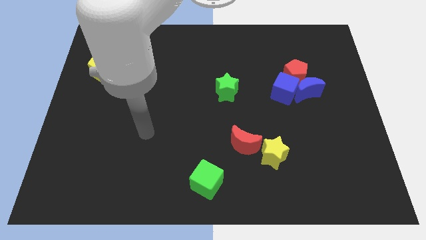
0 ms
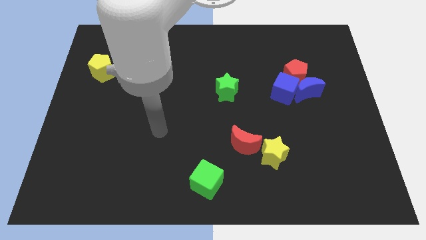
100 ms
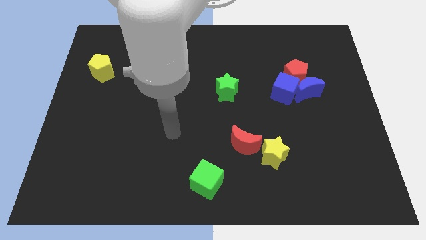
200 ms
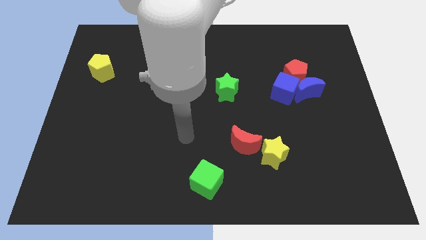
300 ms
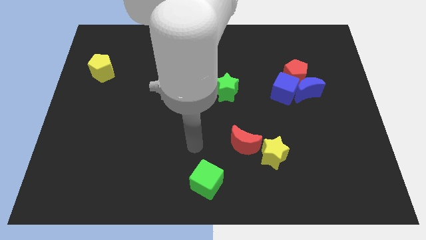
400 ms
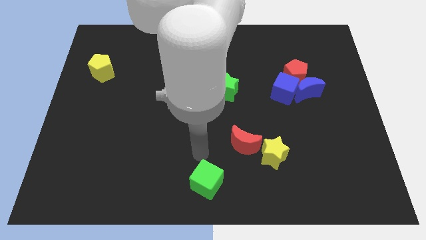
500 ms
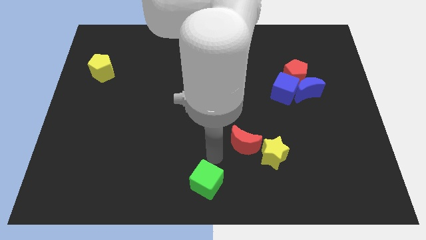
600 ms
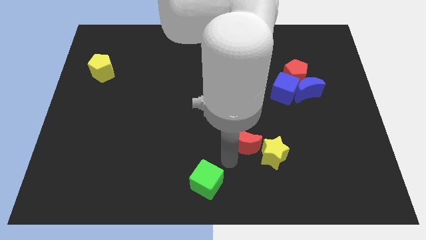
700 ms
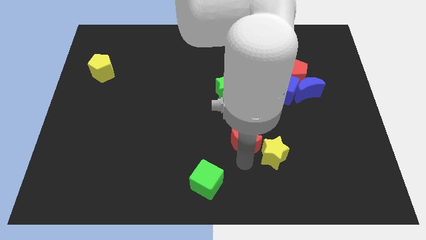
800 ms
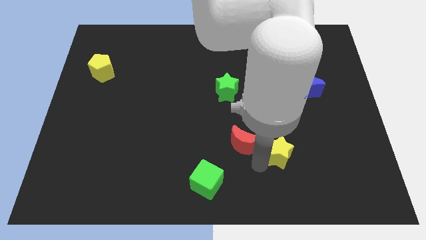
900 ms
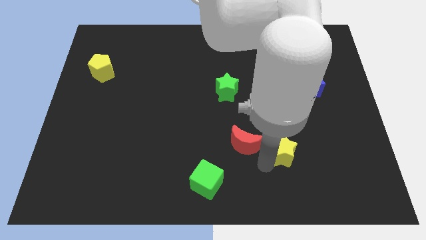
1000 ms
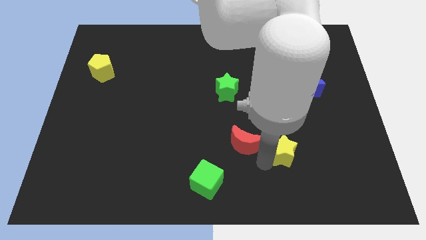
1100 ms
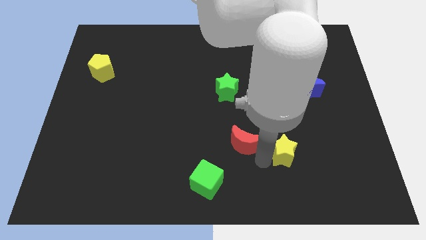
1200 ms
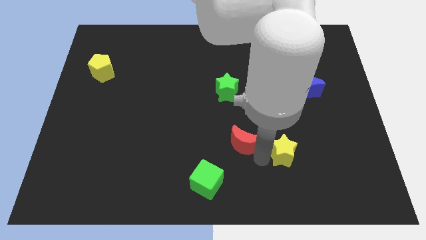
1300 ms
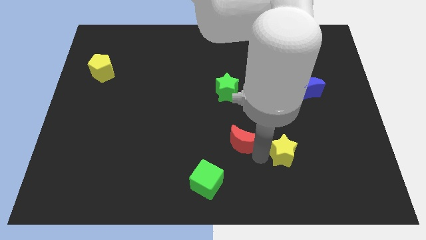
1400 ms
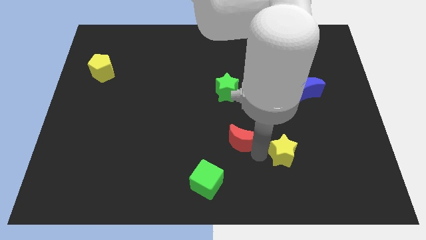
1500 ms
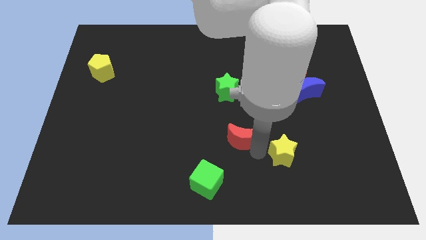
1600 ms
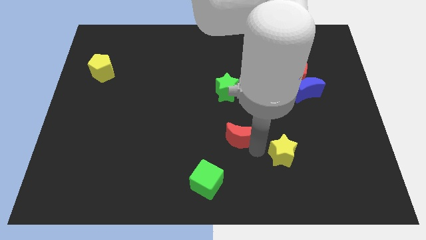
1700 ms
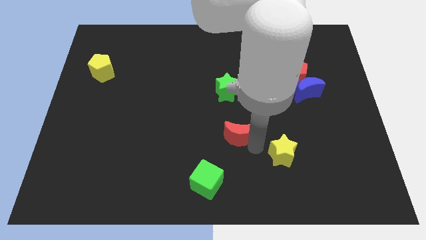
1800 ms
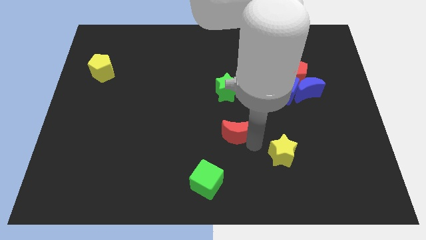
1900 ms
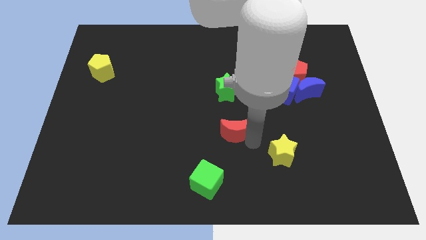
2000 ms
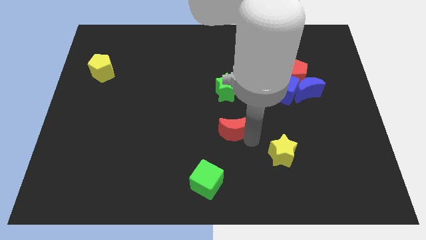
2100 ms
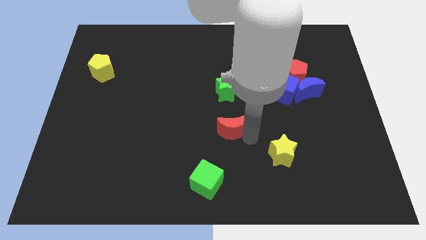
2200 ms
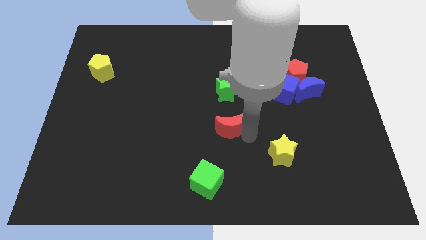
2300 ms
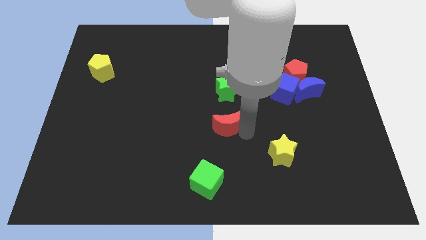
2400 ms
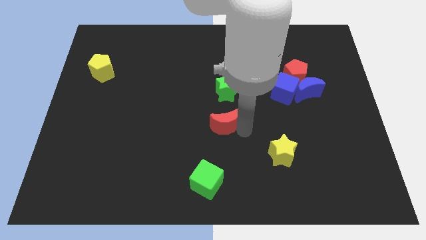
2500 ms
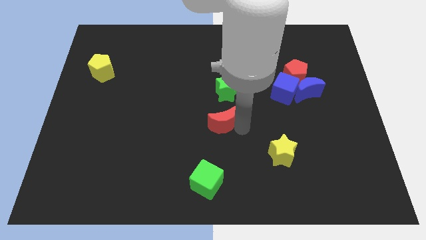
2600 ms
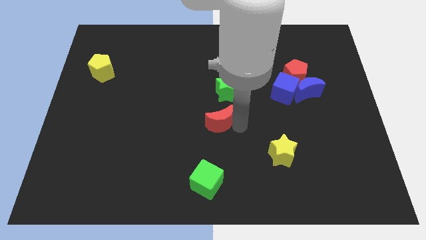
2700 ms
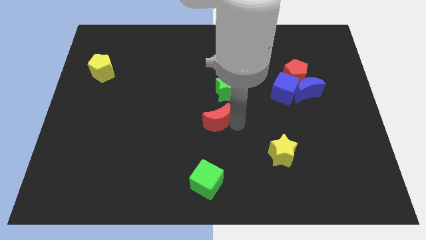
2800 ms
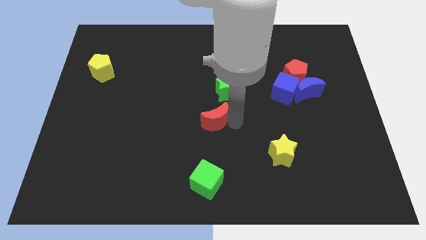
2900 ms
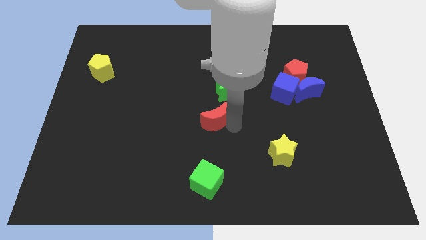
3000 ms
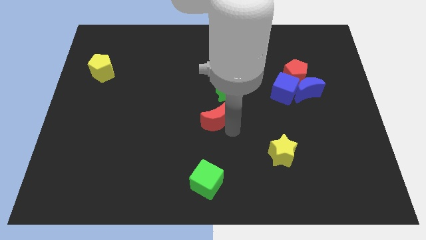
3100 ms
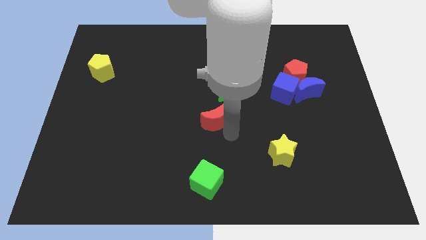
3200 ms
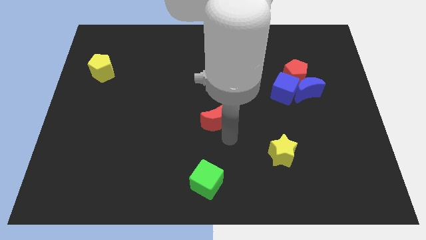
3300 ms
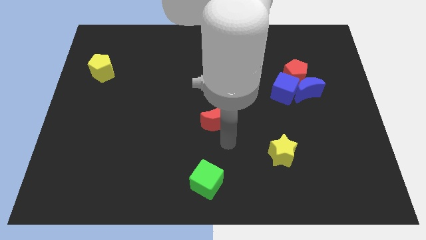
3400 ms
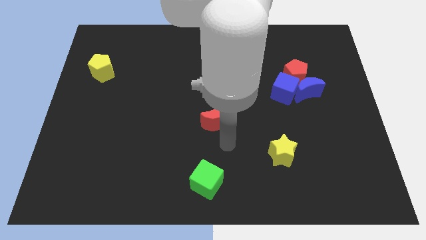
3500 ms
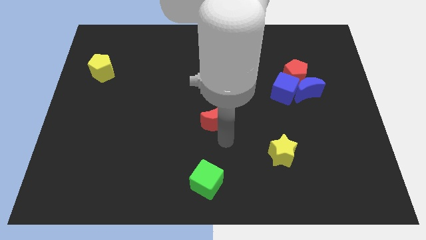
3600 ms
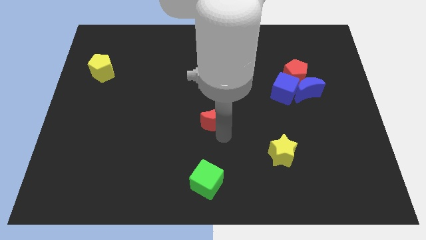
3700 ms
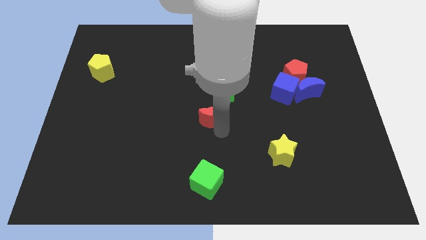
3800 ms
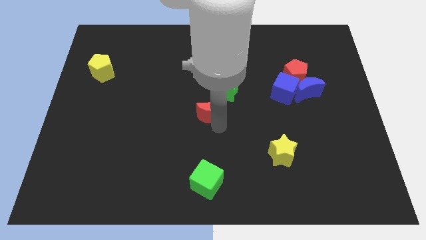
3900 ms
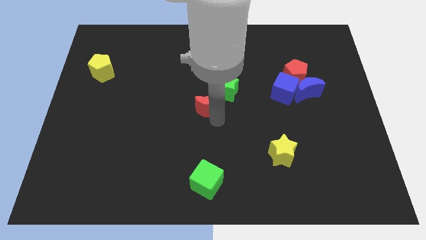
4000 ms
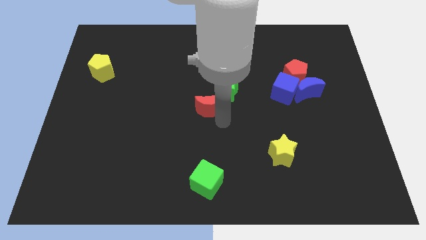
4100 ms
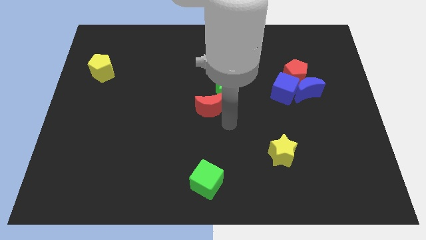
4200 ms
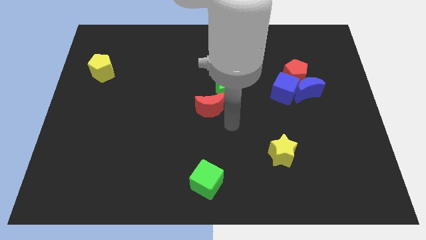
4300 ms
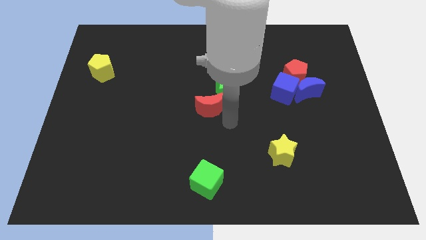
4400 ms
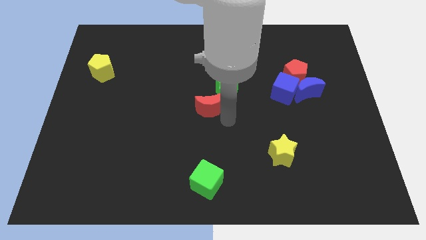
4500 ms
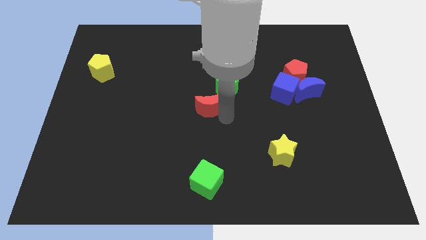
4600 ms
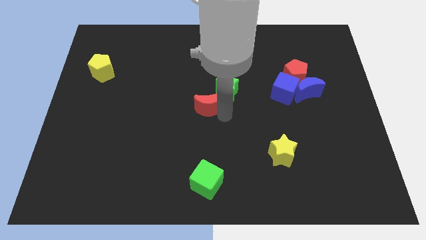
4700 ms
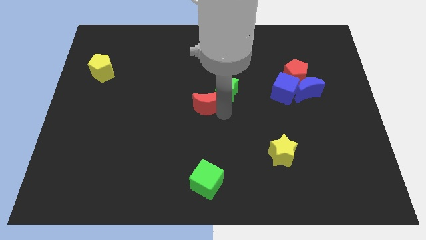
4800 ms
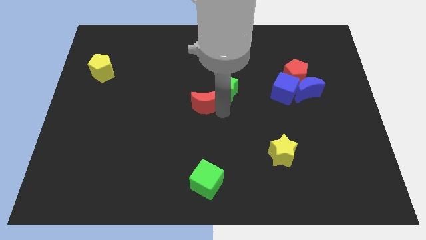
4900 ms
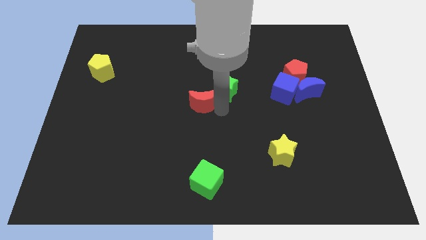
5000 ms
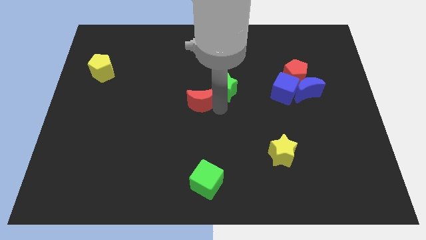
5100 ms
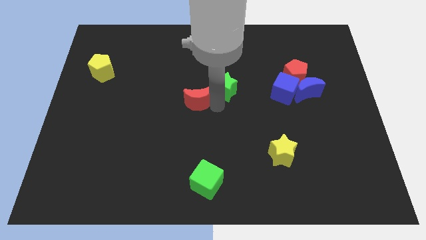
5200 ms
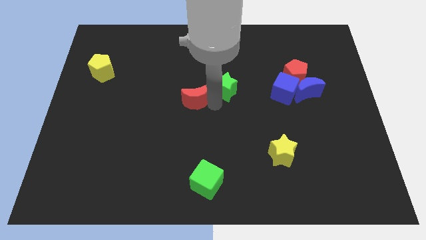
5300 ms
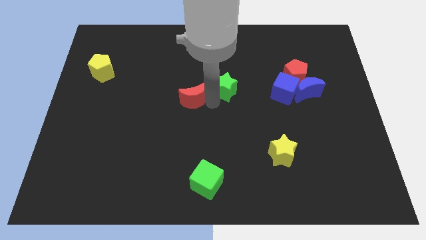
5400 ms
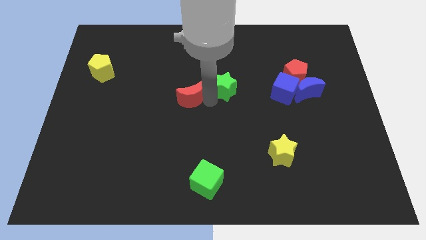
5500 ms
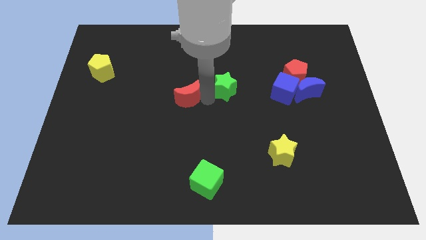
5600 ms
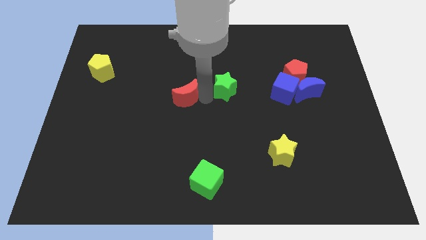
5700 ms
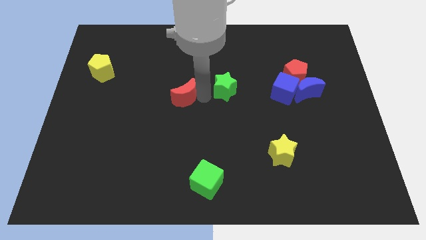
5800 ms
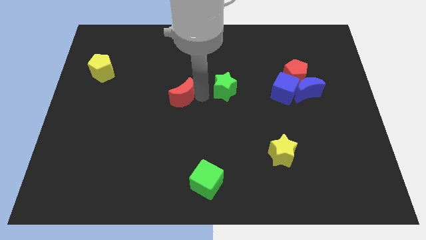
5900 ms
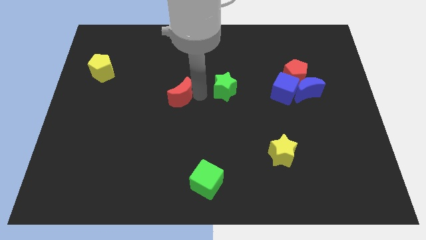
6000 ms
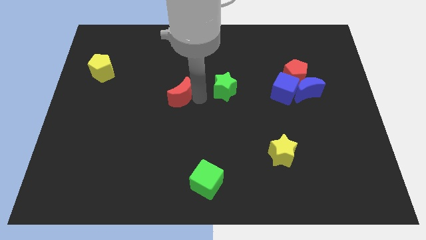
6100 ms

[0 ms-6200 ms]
slide the red moon diagonally upwards and to the left

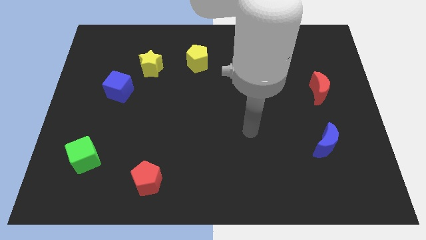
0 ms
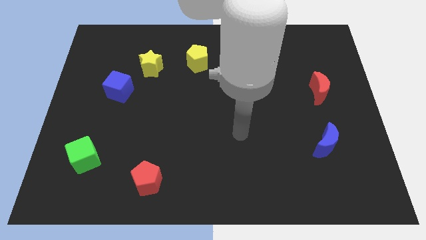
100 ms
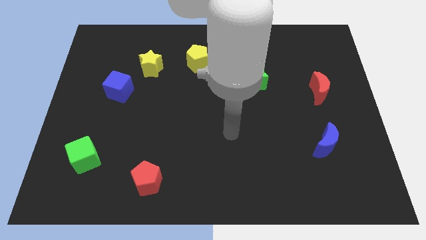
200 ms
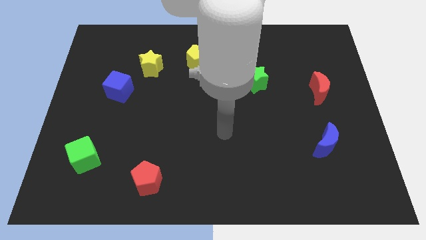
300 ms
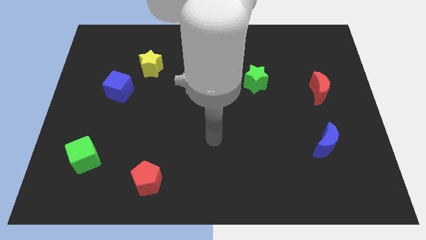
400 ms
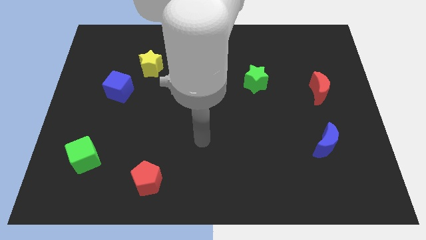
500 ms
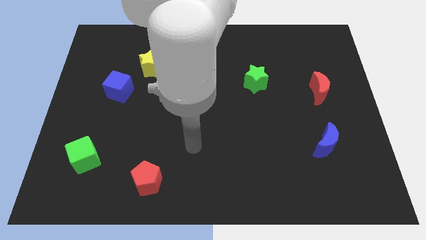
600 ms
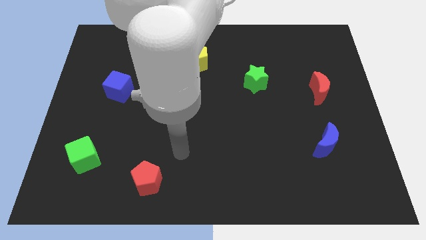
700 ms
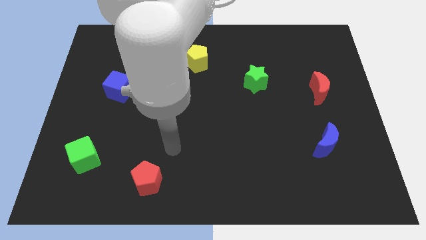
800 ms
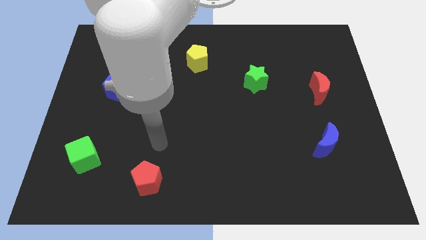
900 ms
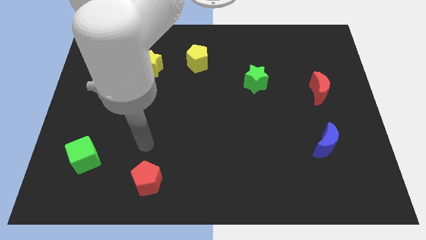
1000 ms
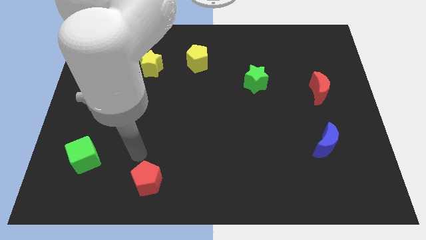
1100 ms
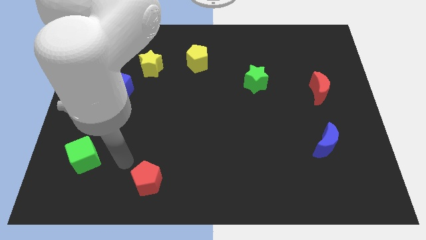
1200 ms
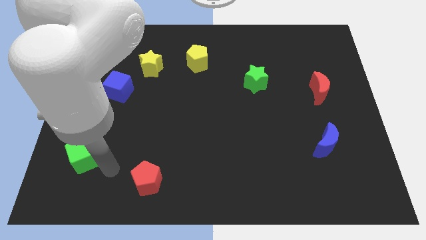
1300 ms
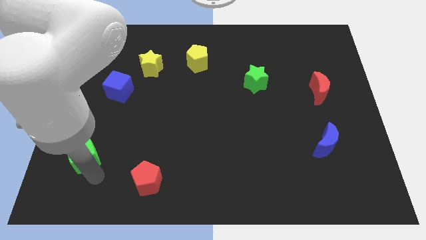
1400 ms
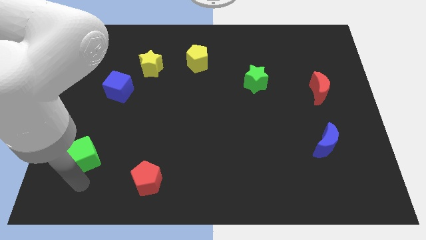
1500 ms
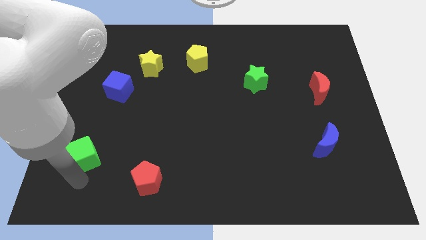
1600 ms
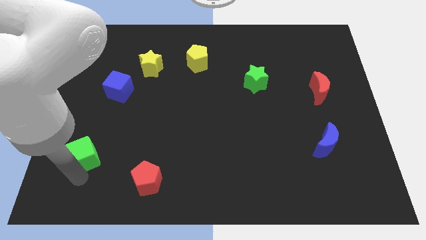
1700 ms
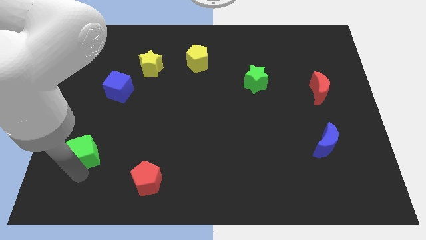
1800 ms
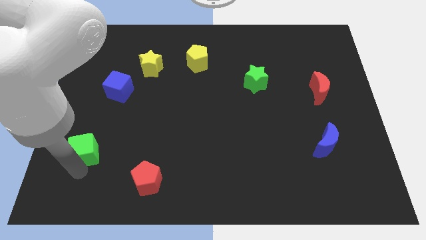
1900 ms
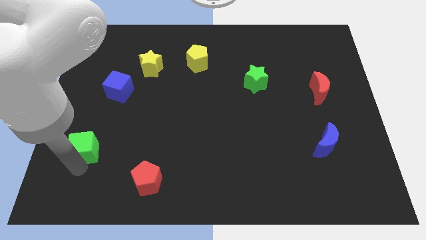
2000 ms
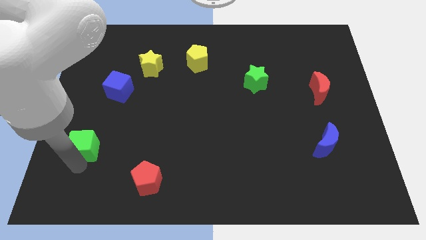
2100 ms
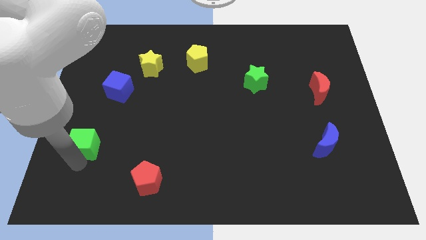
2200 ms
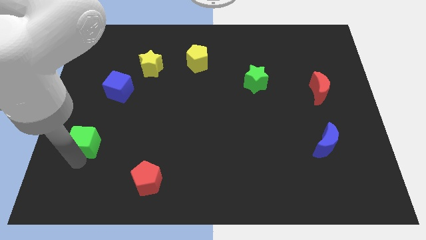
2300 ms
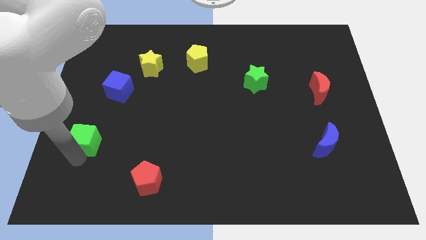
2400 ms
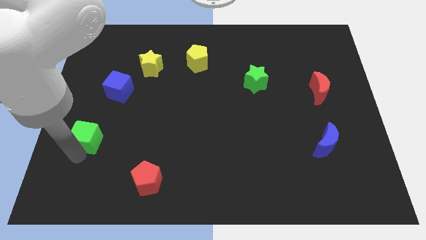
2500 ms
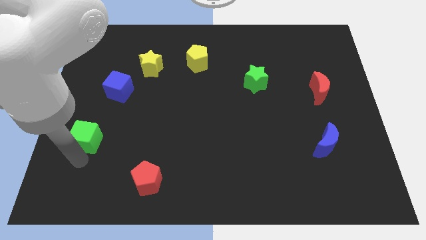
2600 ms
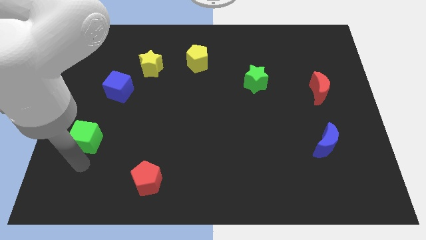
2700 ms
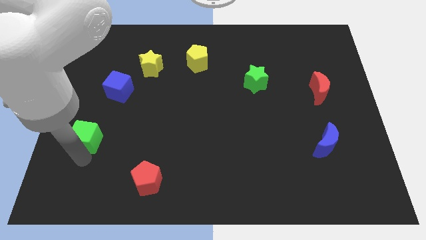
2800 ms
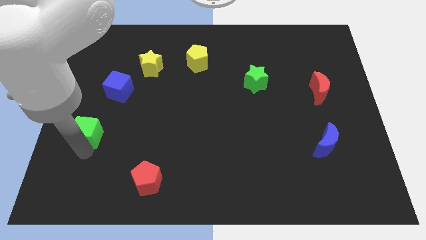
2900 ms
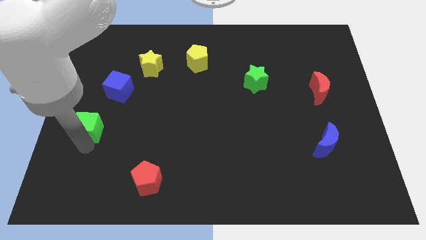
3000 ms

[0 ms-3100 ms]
slide the green cube slightly up
